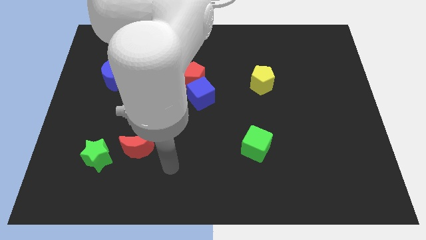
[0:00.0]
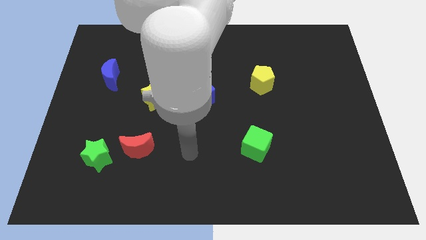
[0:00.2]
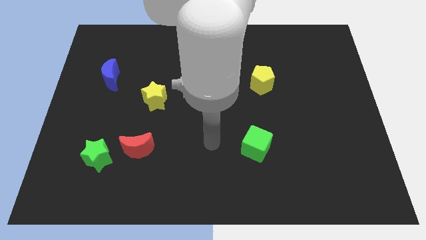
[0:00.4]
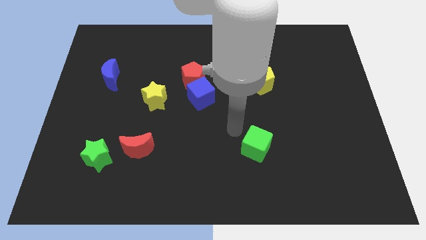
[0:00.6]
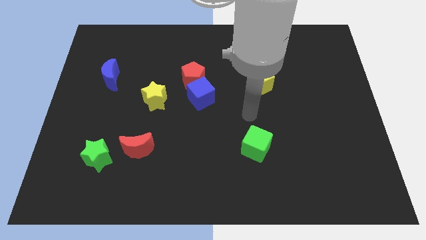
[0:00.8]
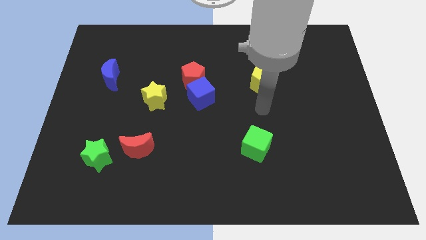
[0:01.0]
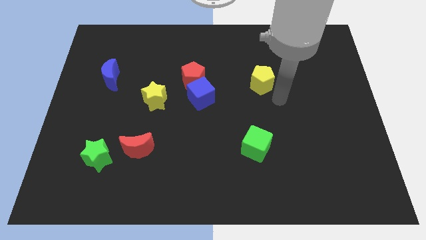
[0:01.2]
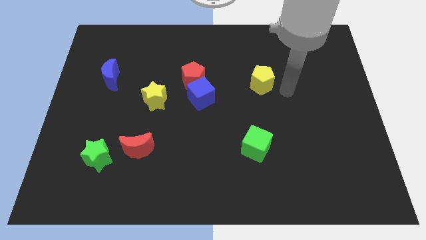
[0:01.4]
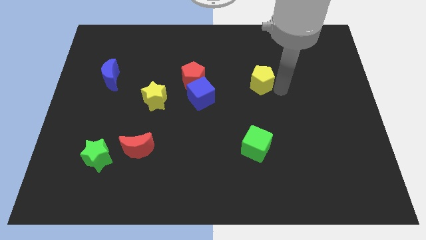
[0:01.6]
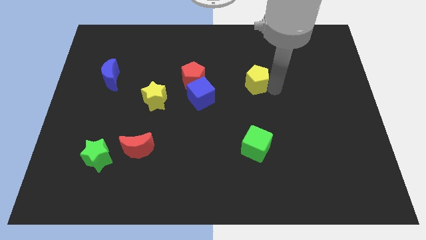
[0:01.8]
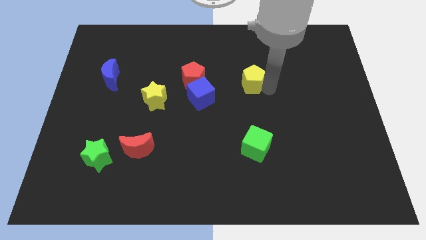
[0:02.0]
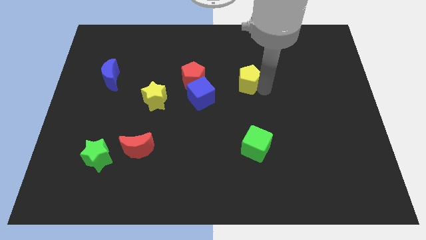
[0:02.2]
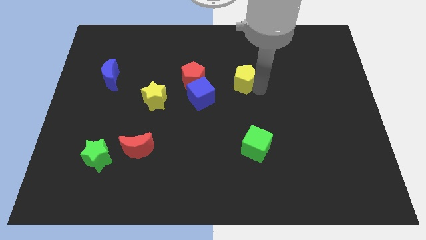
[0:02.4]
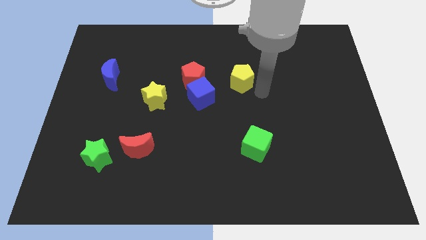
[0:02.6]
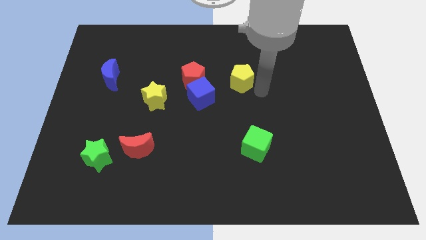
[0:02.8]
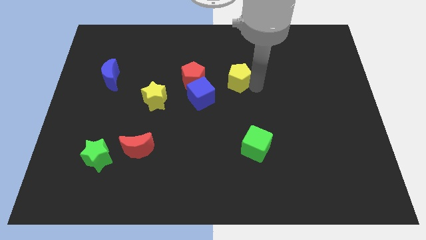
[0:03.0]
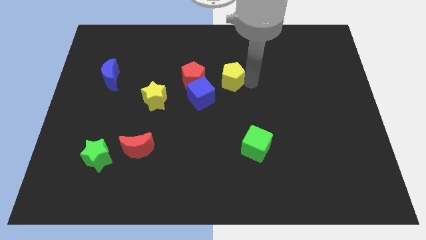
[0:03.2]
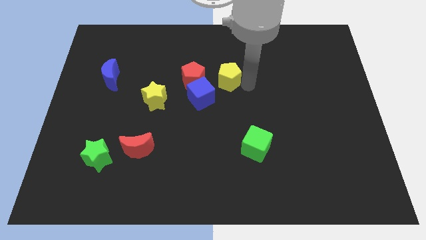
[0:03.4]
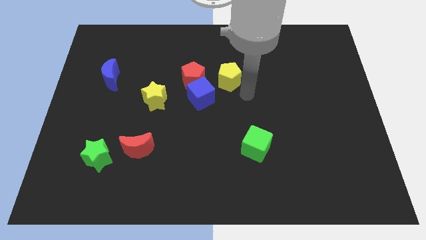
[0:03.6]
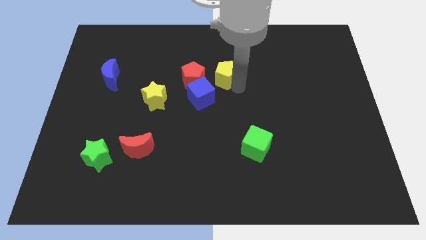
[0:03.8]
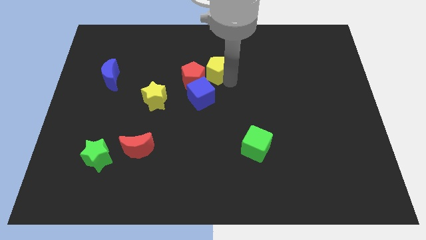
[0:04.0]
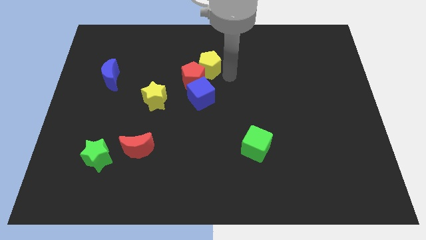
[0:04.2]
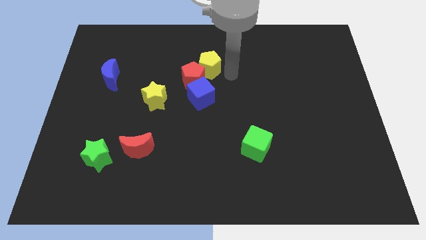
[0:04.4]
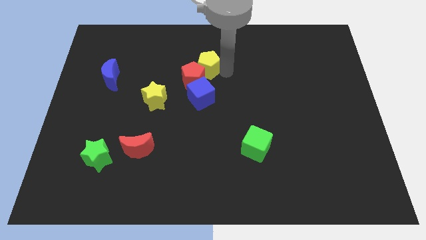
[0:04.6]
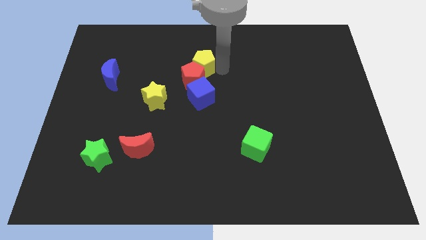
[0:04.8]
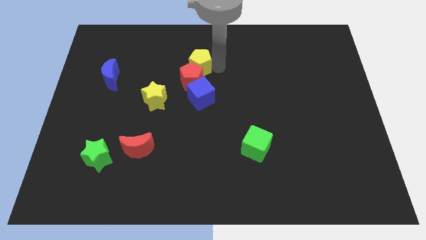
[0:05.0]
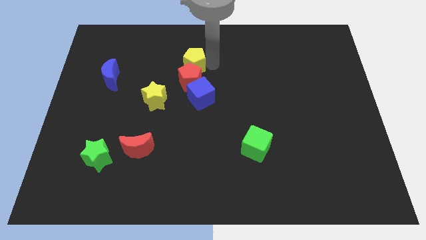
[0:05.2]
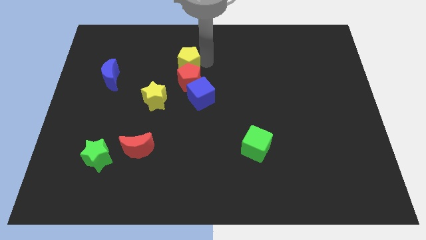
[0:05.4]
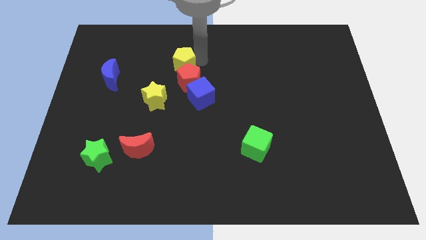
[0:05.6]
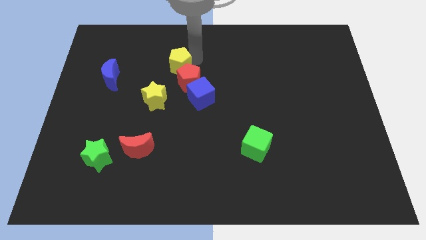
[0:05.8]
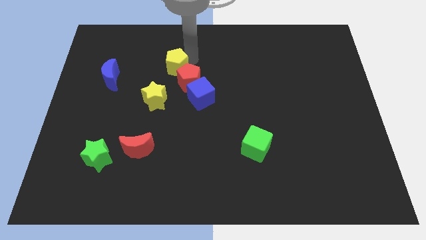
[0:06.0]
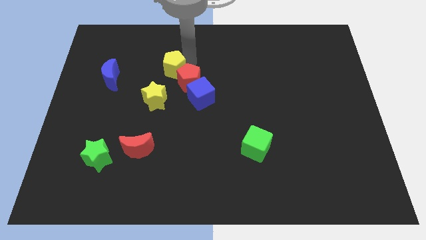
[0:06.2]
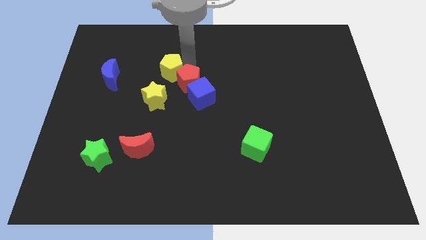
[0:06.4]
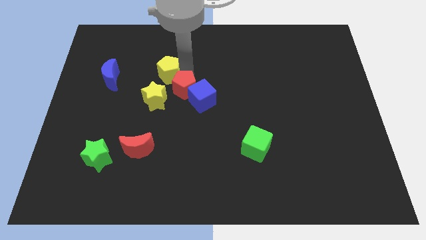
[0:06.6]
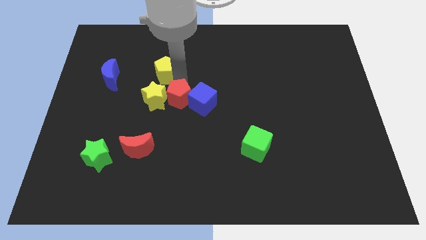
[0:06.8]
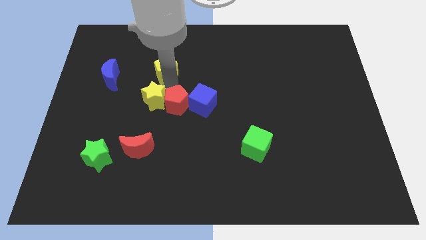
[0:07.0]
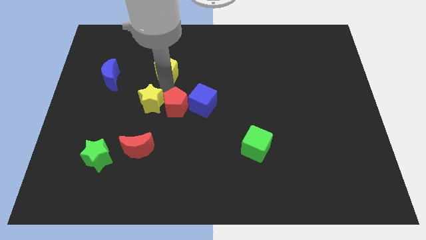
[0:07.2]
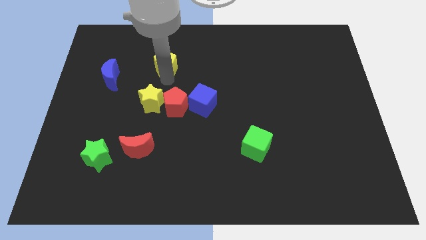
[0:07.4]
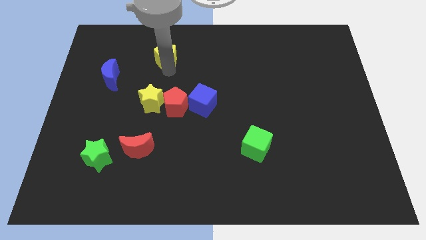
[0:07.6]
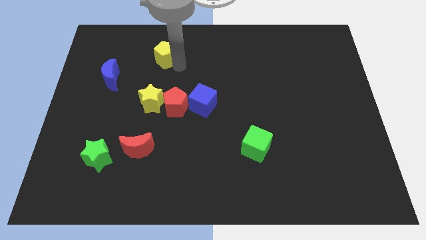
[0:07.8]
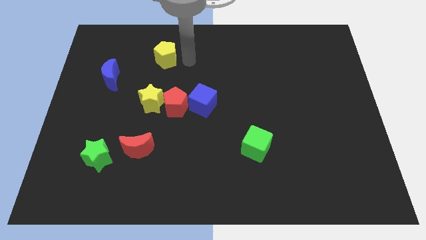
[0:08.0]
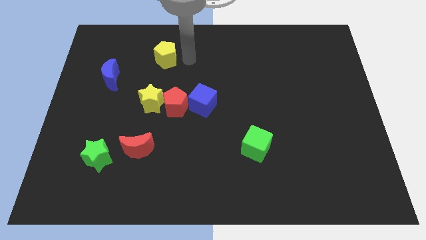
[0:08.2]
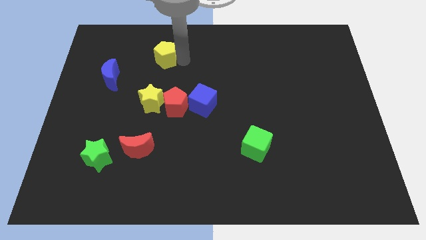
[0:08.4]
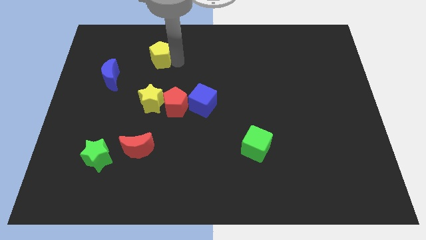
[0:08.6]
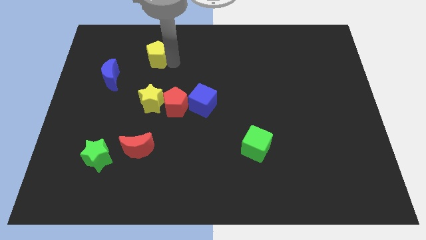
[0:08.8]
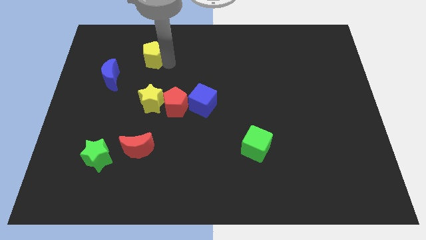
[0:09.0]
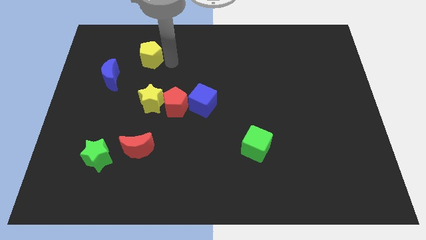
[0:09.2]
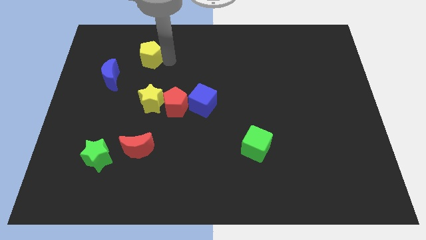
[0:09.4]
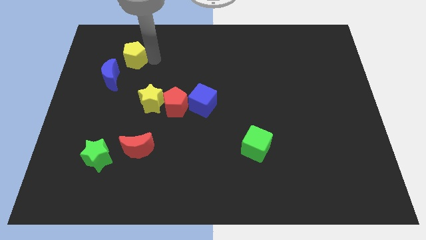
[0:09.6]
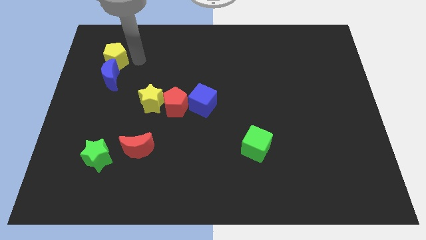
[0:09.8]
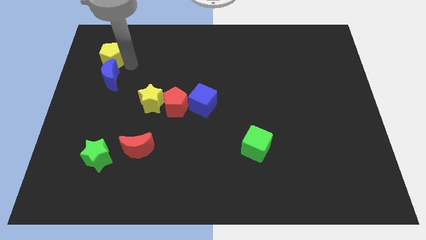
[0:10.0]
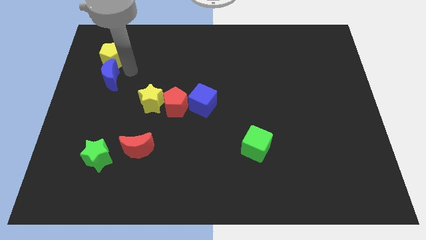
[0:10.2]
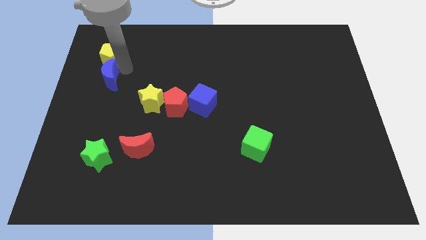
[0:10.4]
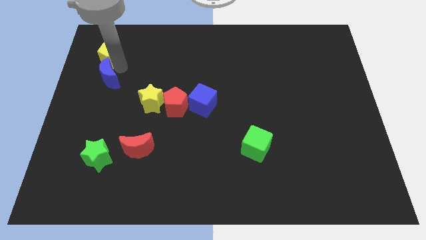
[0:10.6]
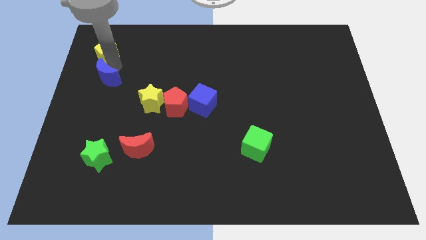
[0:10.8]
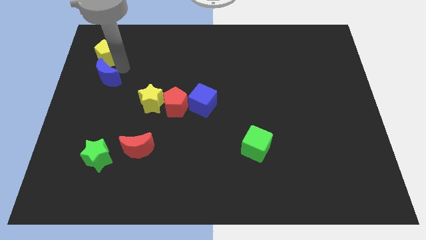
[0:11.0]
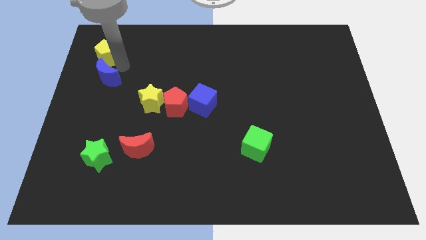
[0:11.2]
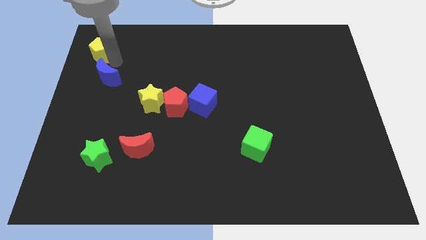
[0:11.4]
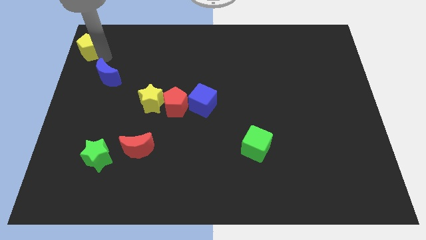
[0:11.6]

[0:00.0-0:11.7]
slide the yellow pentagon to the top left

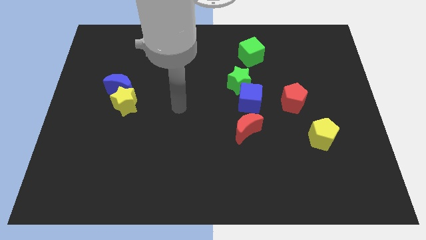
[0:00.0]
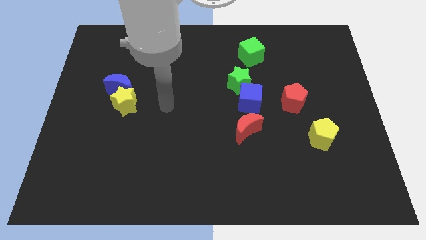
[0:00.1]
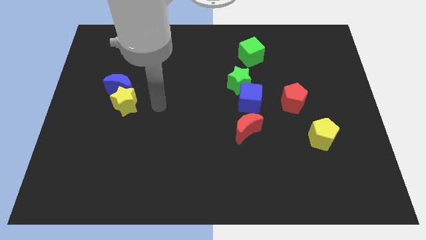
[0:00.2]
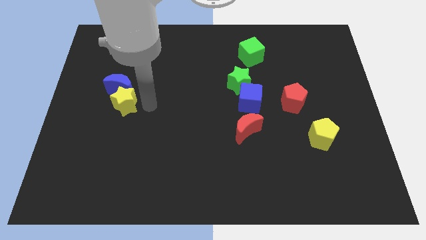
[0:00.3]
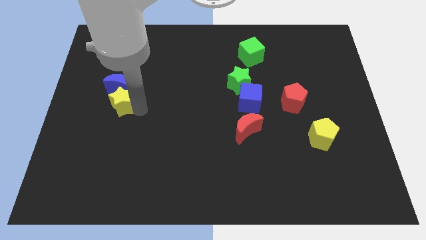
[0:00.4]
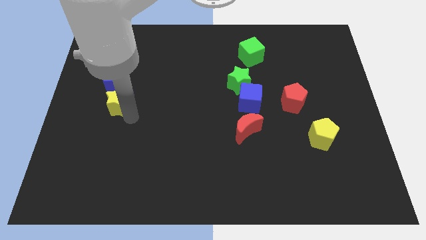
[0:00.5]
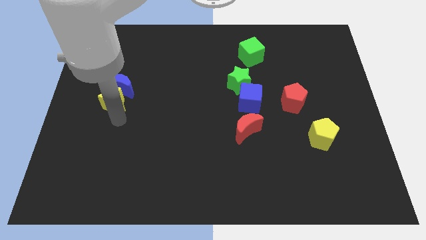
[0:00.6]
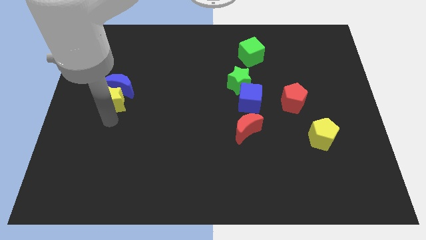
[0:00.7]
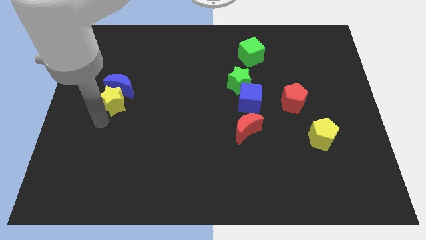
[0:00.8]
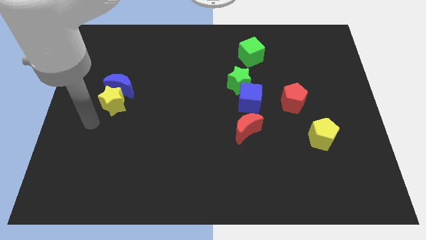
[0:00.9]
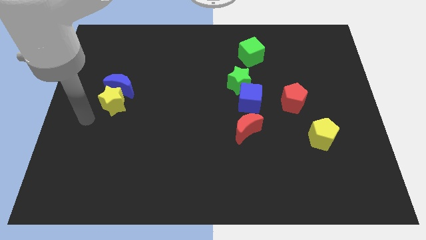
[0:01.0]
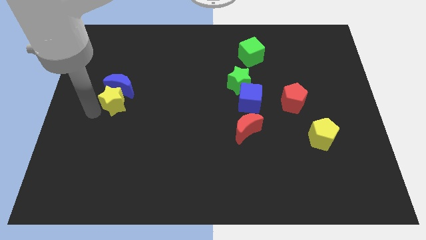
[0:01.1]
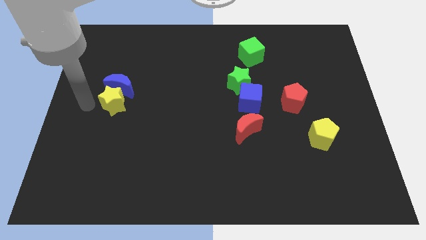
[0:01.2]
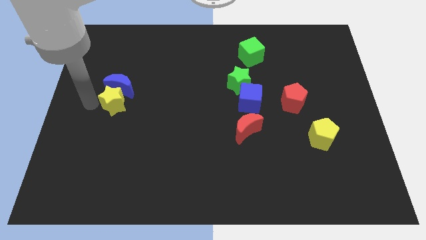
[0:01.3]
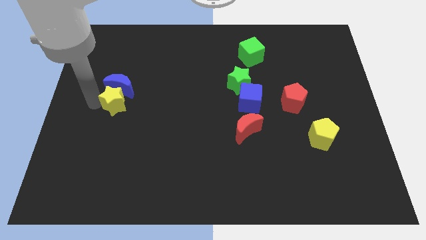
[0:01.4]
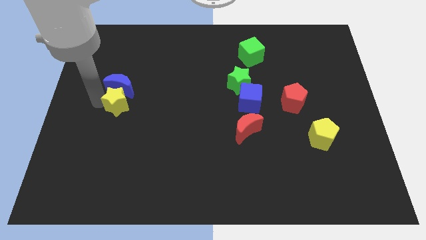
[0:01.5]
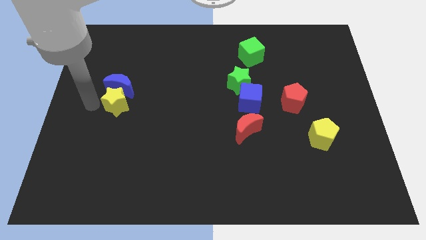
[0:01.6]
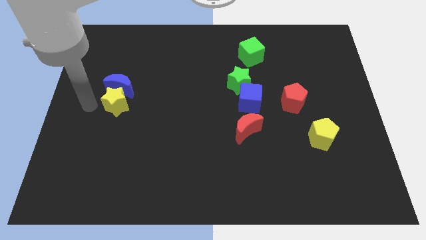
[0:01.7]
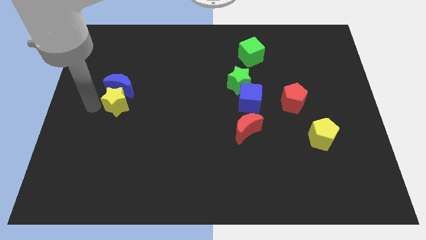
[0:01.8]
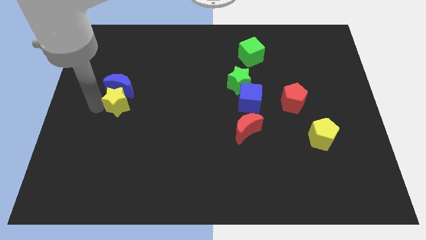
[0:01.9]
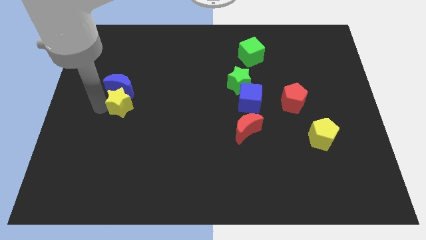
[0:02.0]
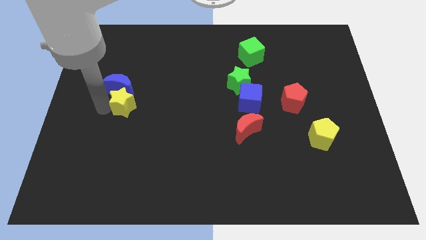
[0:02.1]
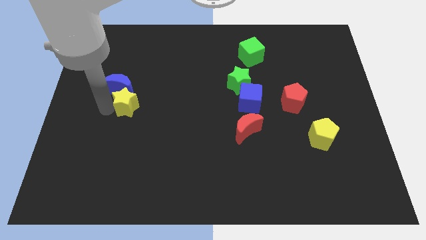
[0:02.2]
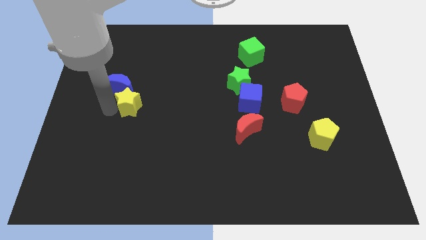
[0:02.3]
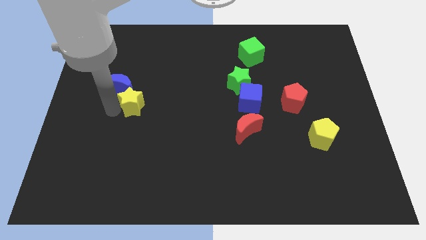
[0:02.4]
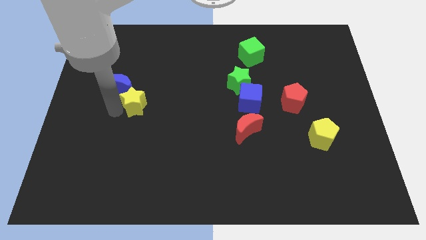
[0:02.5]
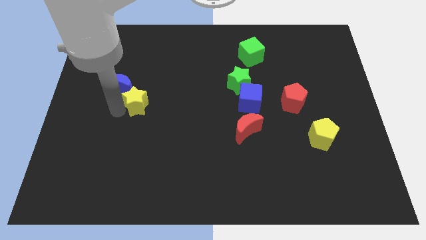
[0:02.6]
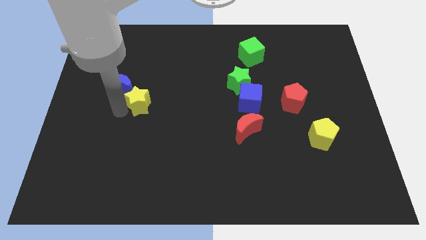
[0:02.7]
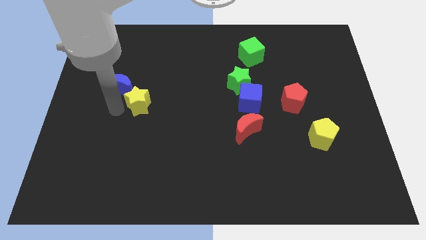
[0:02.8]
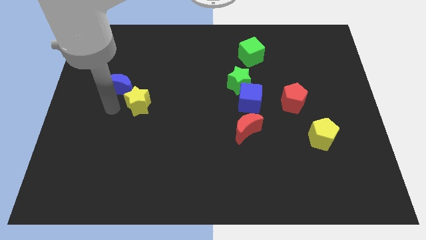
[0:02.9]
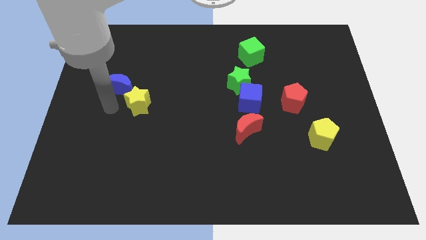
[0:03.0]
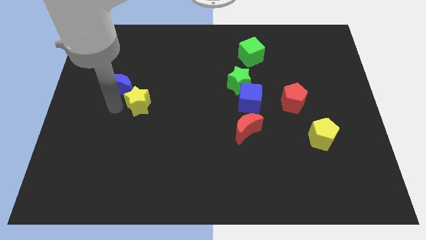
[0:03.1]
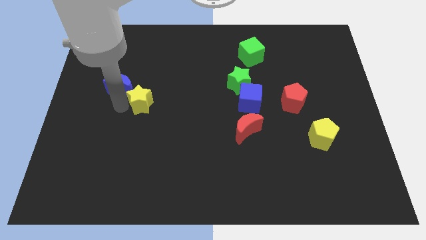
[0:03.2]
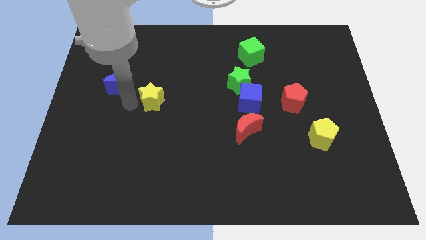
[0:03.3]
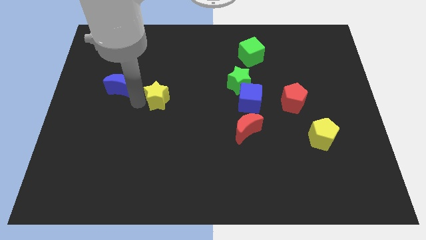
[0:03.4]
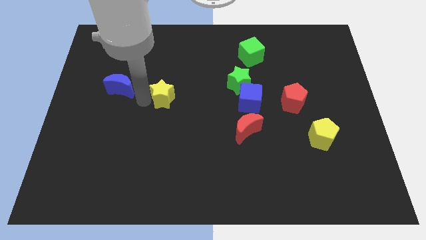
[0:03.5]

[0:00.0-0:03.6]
push the yellow star to the center
